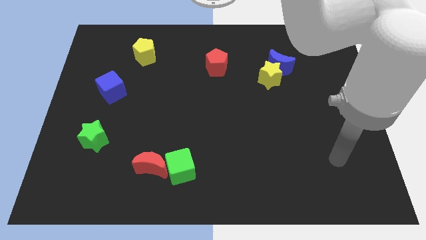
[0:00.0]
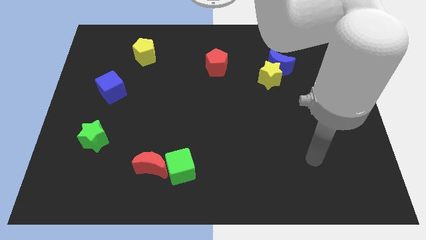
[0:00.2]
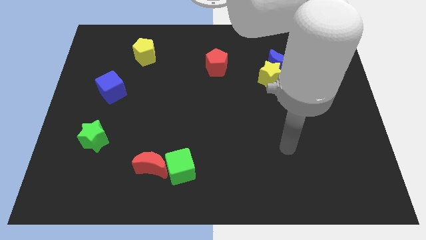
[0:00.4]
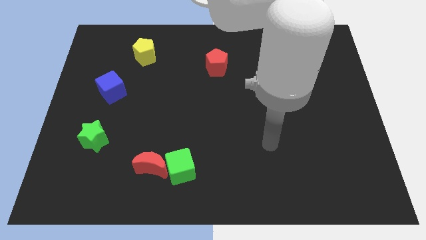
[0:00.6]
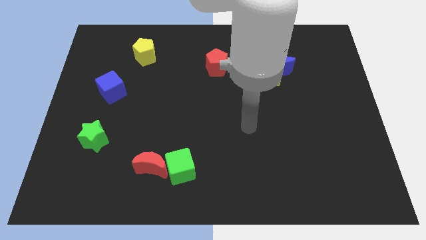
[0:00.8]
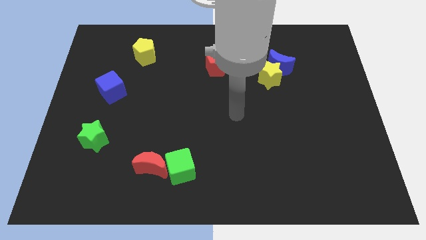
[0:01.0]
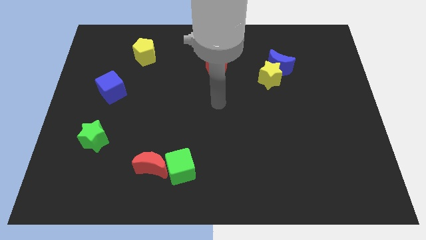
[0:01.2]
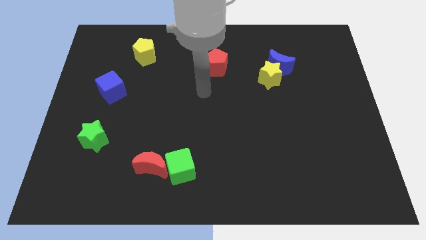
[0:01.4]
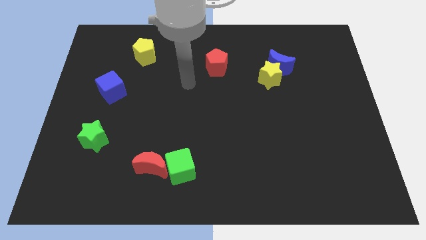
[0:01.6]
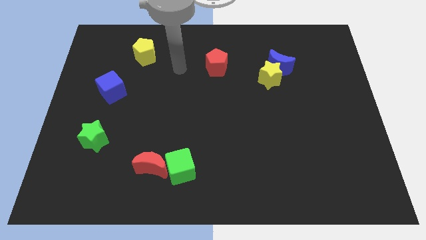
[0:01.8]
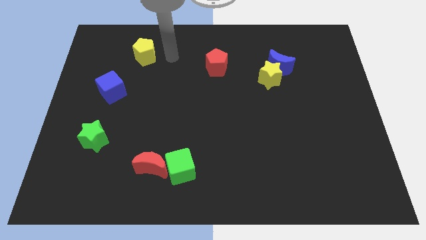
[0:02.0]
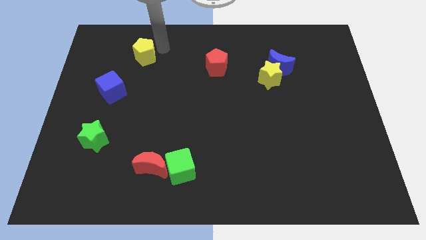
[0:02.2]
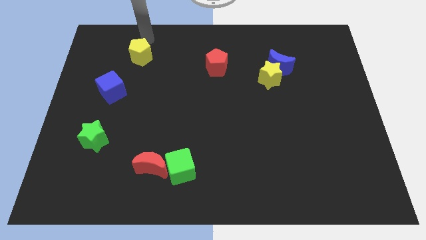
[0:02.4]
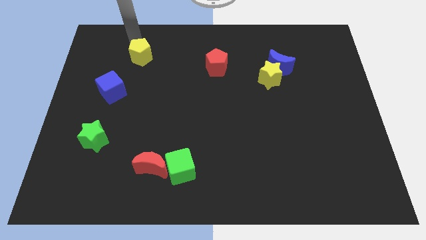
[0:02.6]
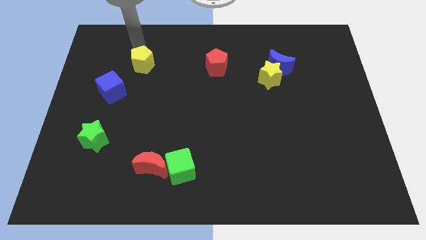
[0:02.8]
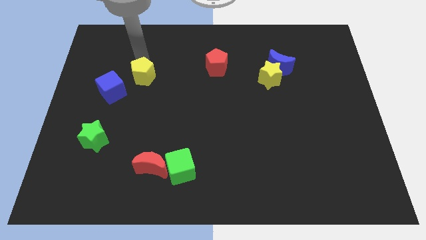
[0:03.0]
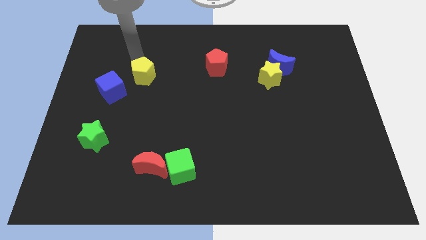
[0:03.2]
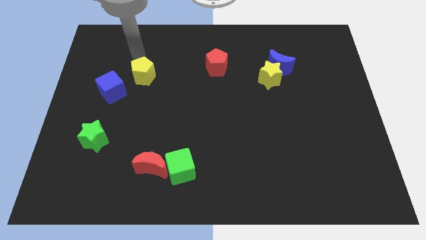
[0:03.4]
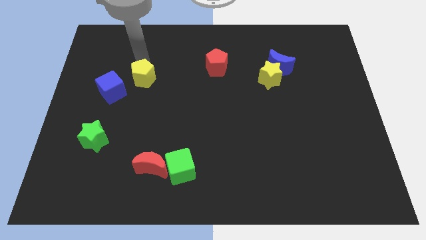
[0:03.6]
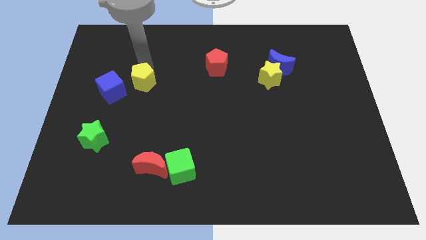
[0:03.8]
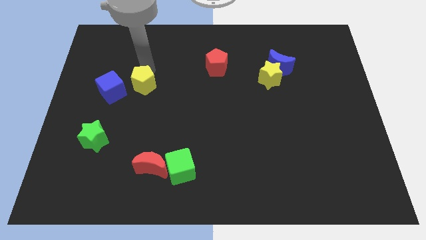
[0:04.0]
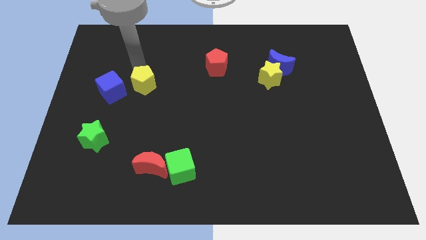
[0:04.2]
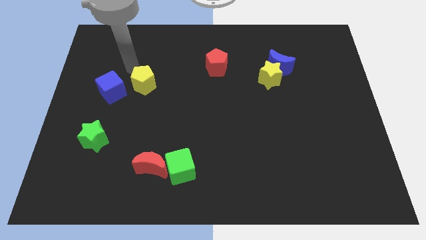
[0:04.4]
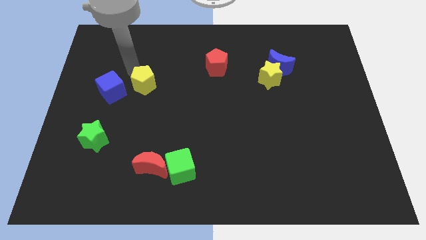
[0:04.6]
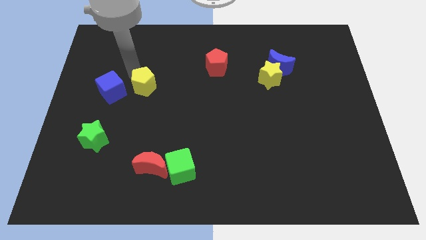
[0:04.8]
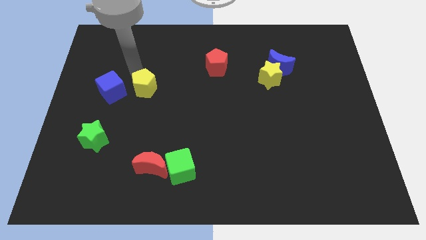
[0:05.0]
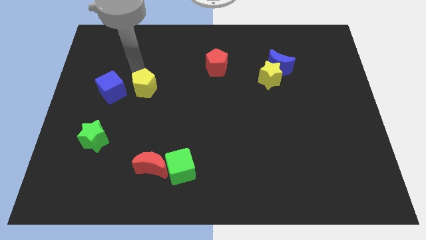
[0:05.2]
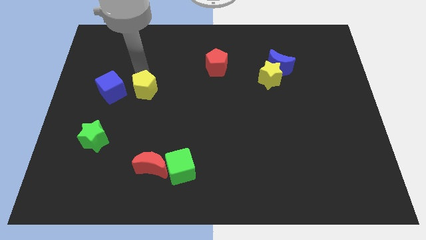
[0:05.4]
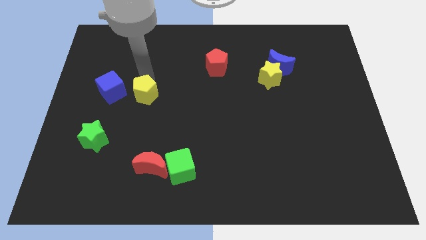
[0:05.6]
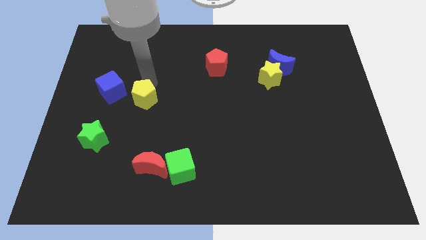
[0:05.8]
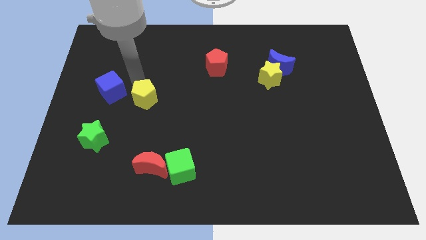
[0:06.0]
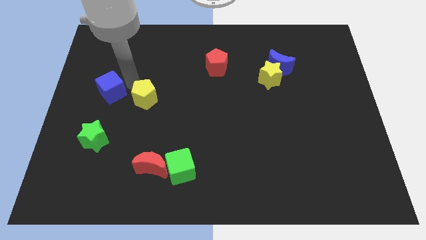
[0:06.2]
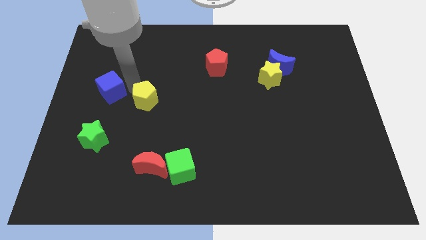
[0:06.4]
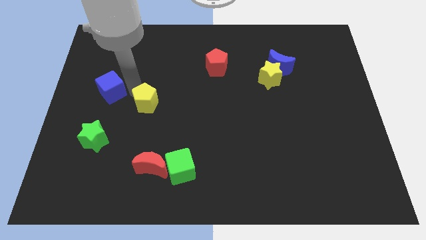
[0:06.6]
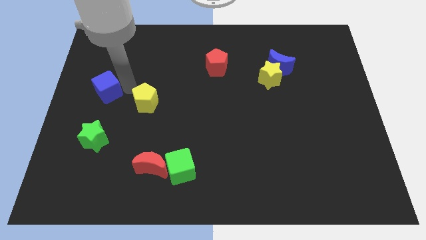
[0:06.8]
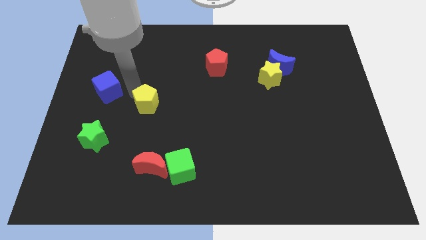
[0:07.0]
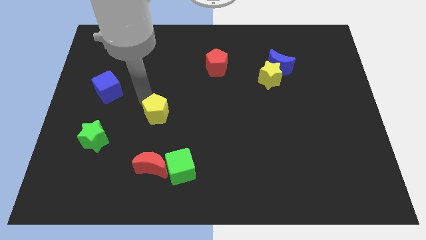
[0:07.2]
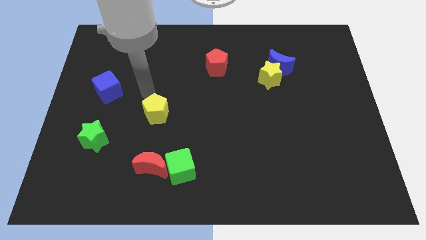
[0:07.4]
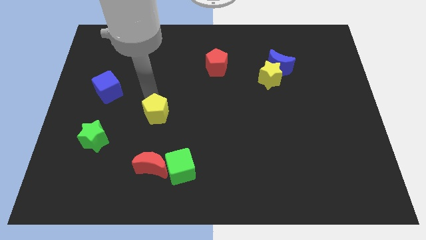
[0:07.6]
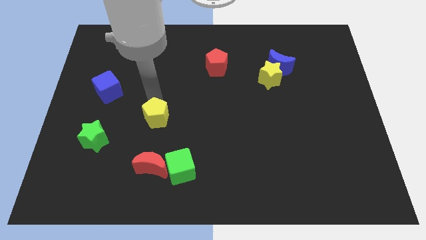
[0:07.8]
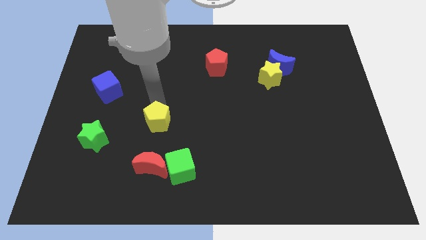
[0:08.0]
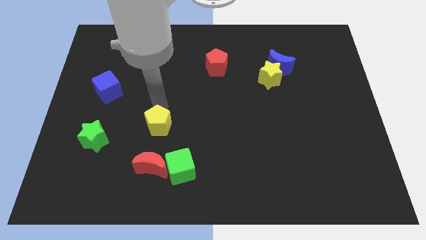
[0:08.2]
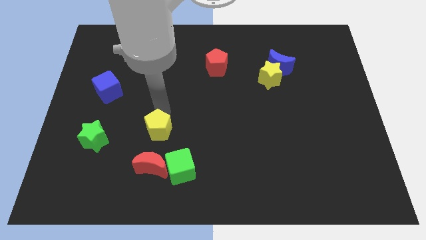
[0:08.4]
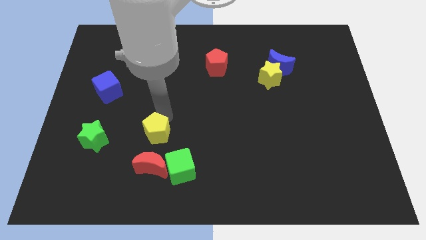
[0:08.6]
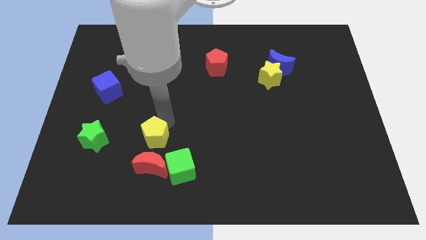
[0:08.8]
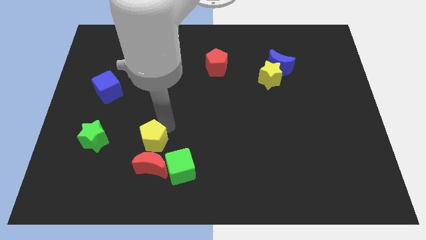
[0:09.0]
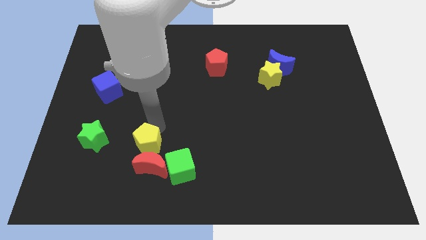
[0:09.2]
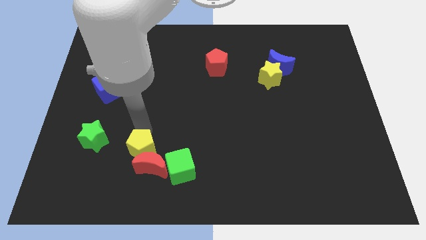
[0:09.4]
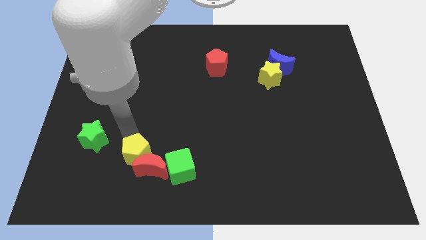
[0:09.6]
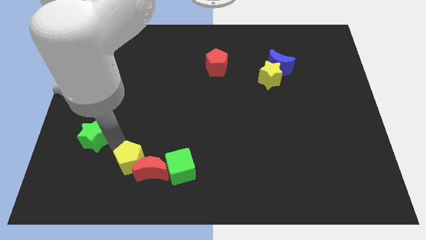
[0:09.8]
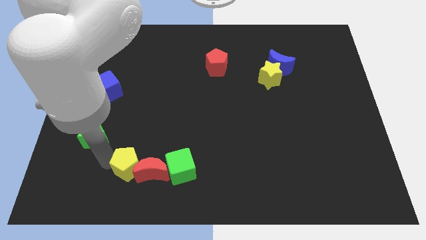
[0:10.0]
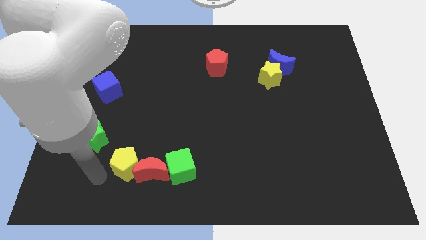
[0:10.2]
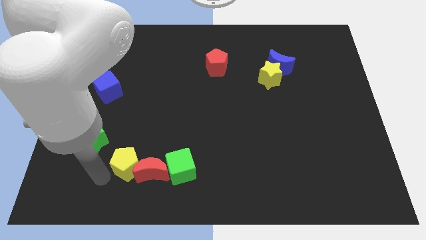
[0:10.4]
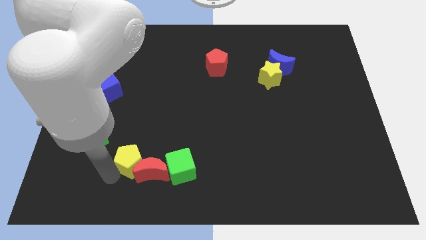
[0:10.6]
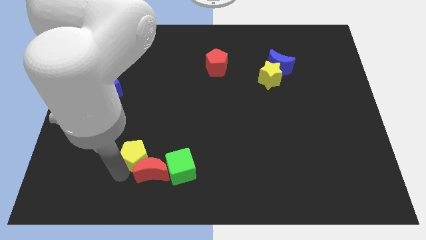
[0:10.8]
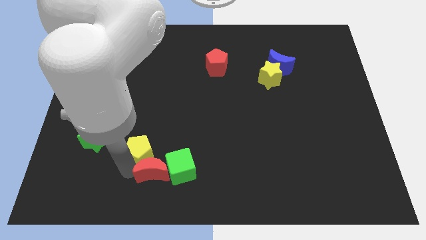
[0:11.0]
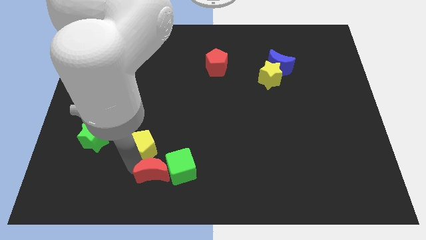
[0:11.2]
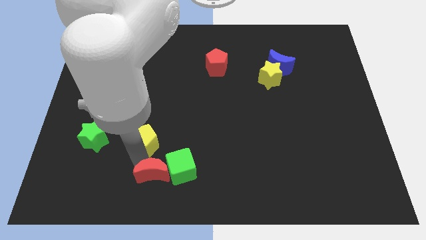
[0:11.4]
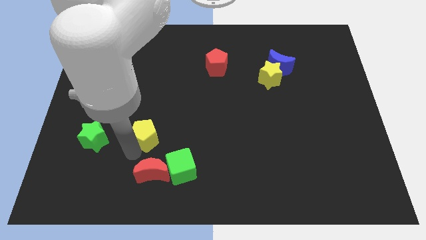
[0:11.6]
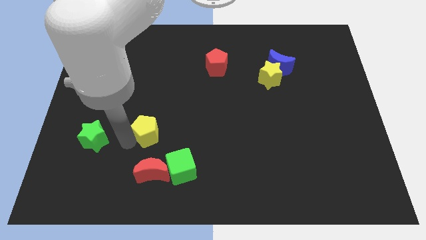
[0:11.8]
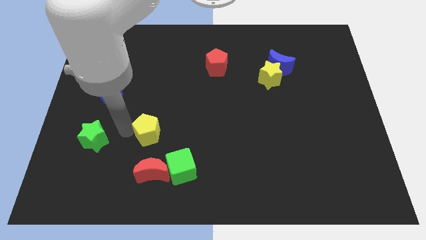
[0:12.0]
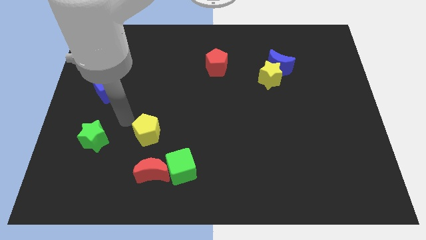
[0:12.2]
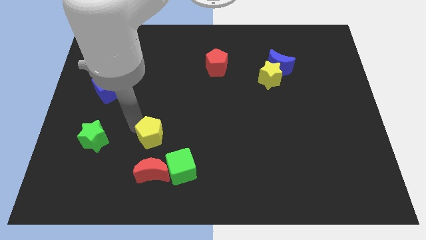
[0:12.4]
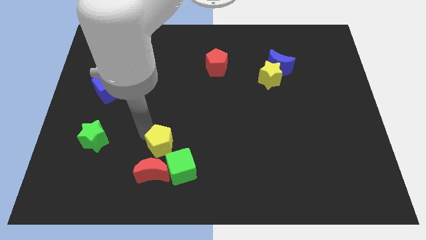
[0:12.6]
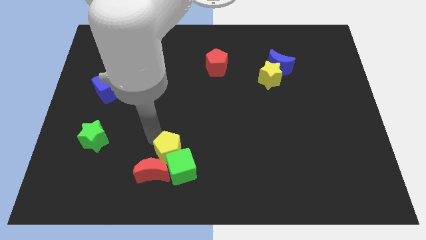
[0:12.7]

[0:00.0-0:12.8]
move the yellow pentagon towards the green cube

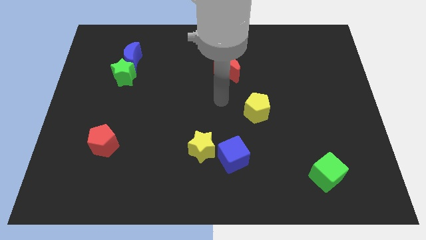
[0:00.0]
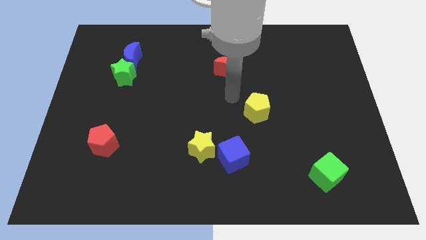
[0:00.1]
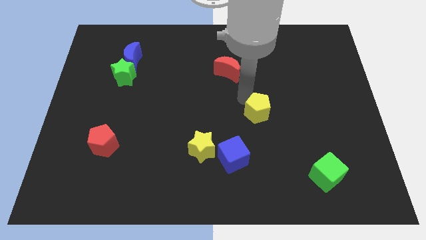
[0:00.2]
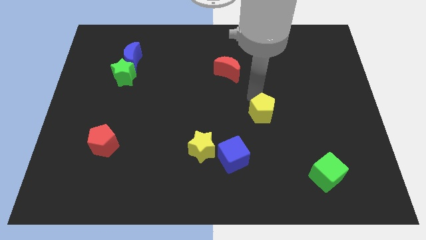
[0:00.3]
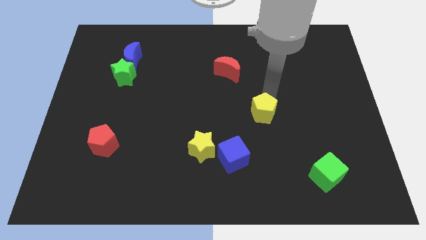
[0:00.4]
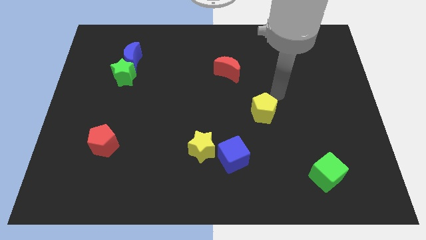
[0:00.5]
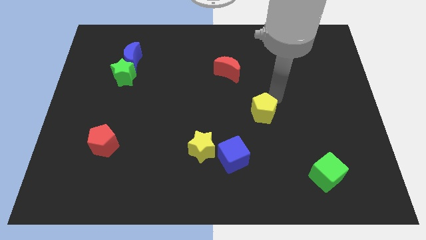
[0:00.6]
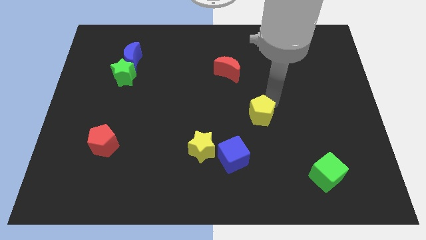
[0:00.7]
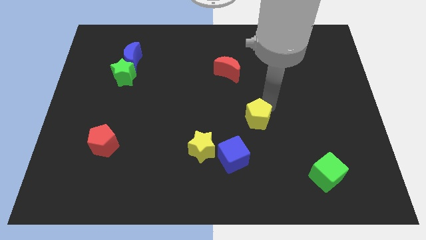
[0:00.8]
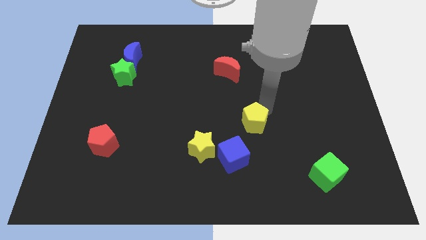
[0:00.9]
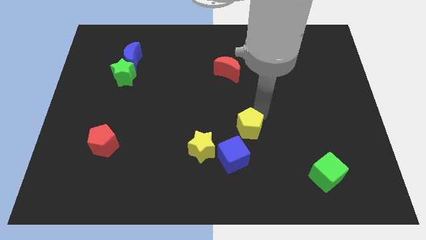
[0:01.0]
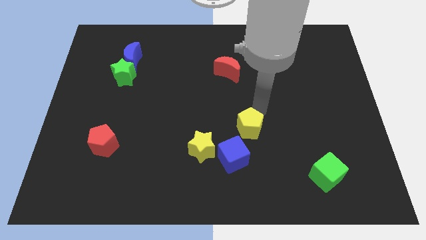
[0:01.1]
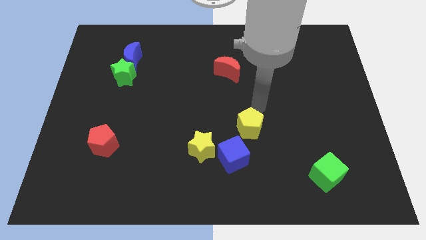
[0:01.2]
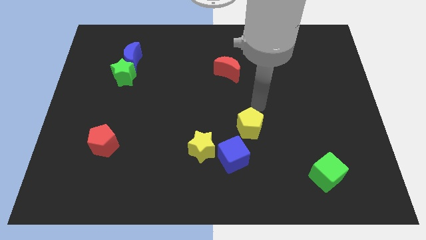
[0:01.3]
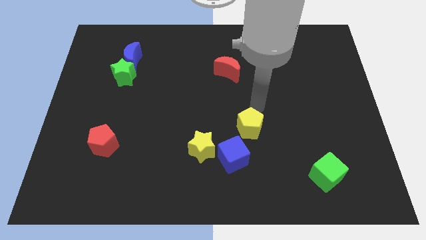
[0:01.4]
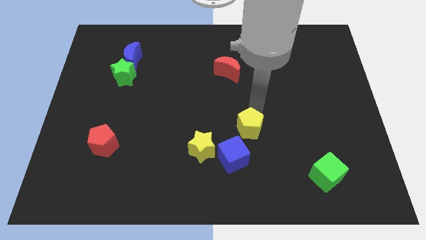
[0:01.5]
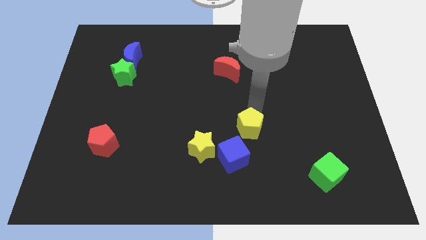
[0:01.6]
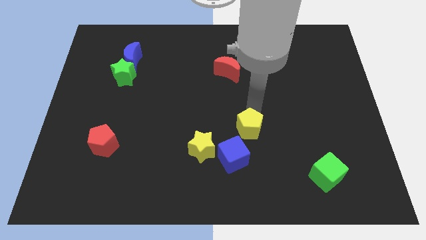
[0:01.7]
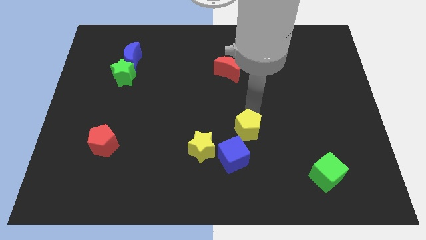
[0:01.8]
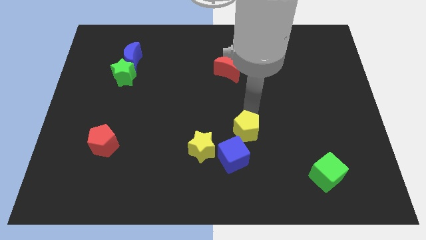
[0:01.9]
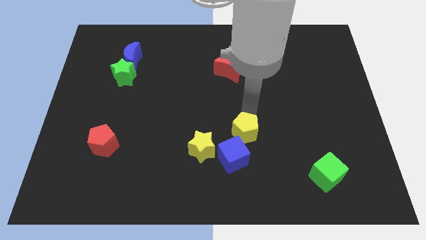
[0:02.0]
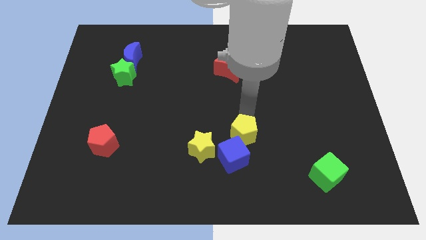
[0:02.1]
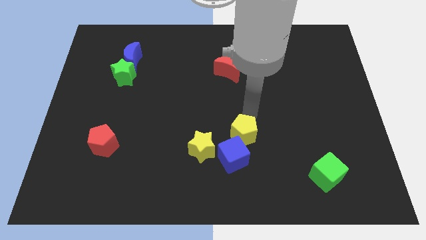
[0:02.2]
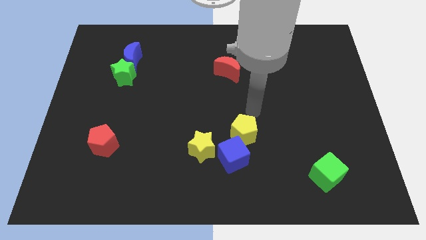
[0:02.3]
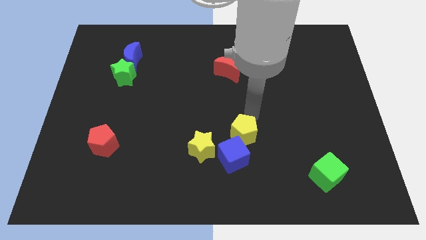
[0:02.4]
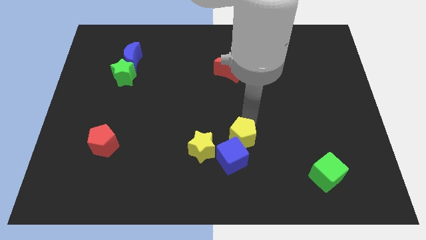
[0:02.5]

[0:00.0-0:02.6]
move the yellow pentagon close to the blue cube
